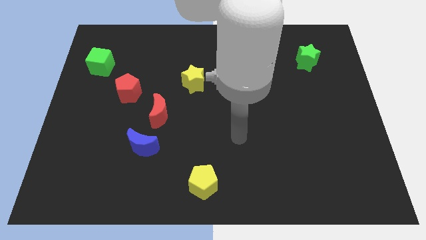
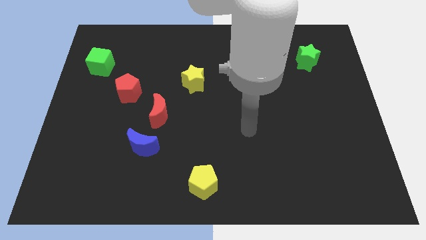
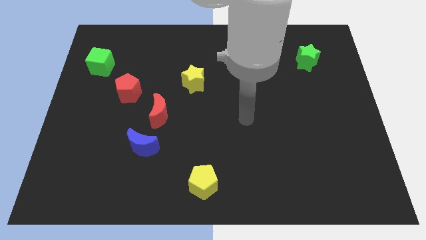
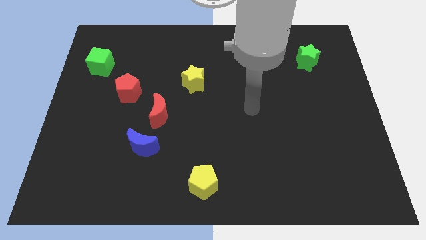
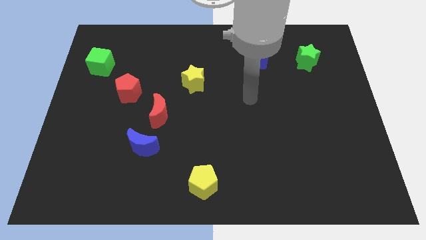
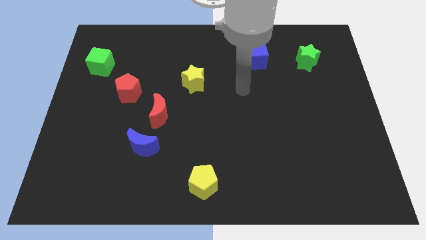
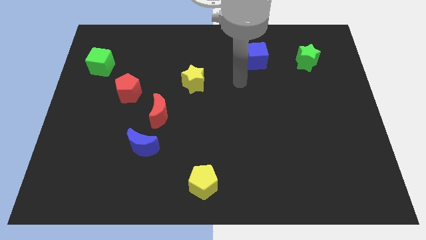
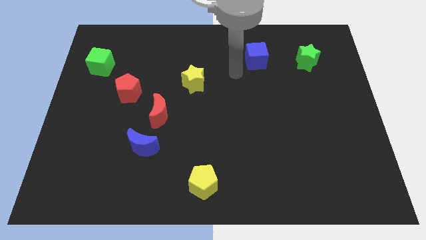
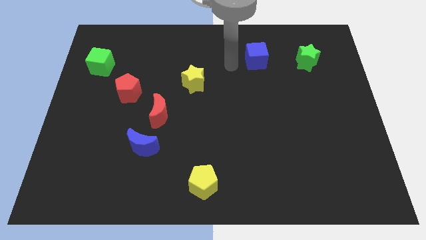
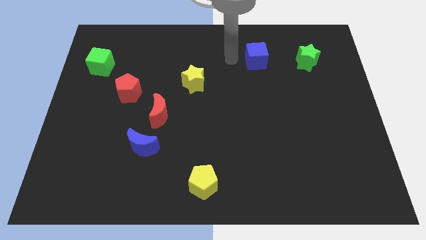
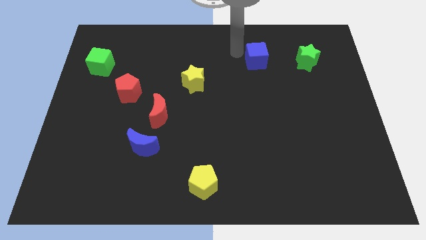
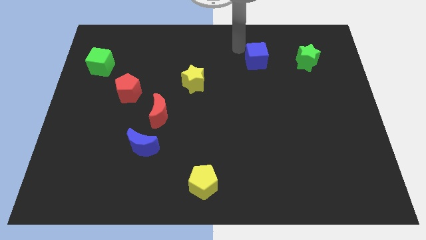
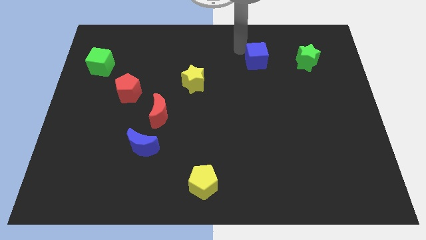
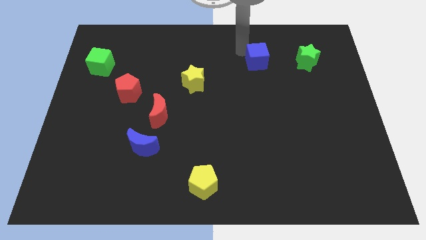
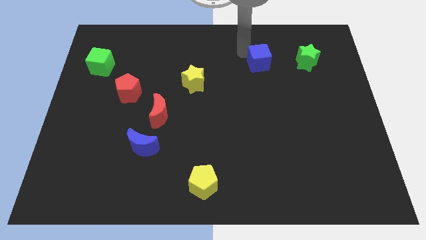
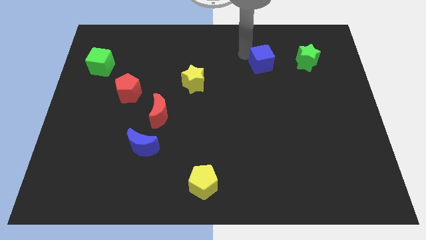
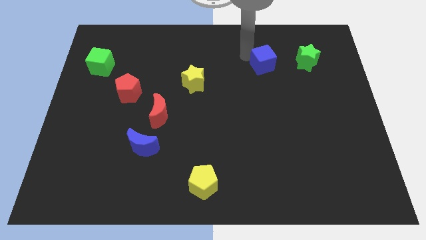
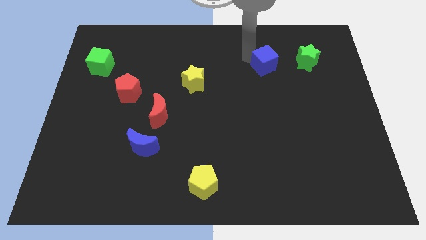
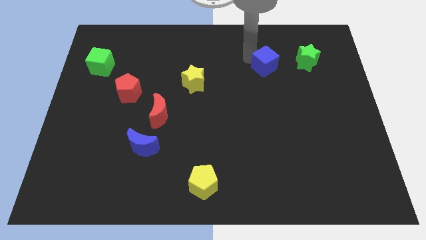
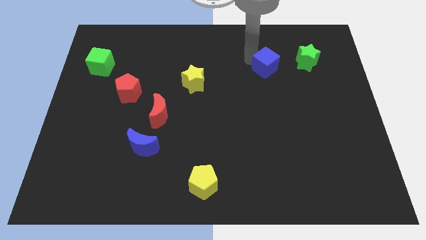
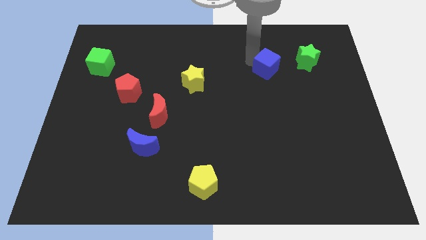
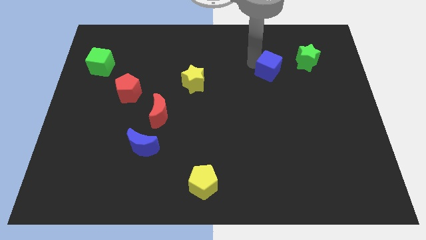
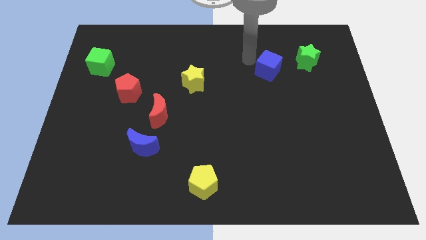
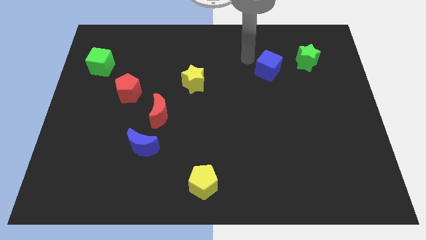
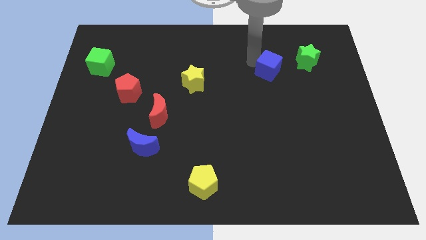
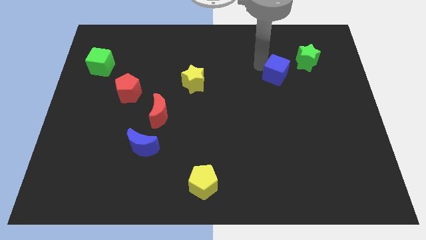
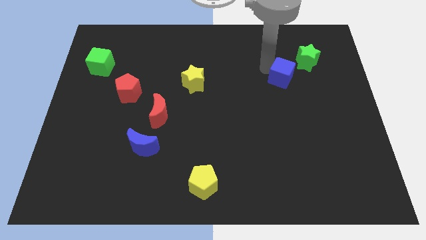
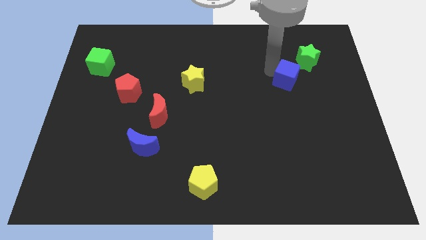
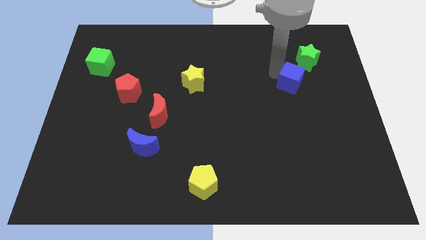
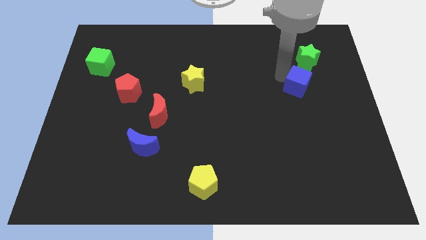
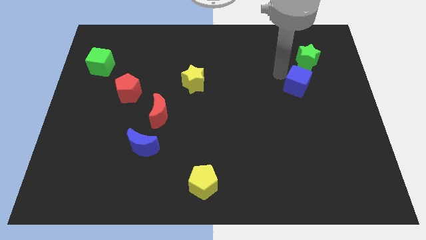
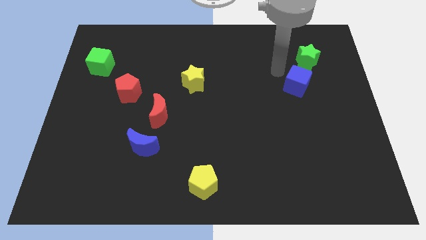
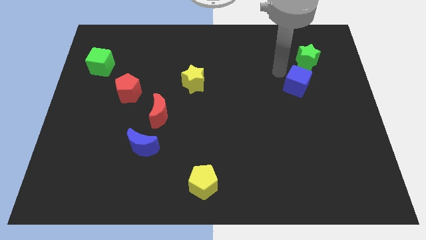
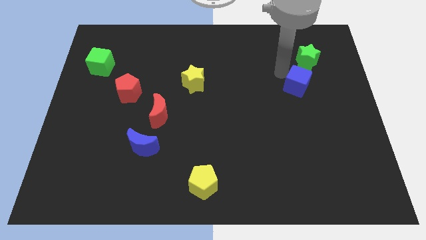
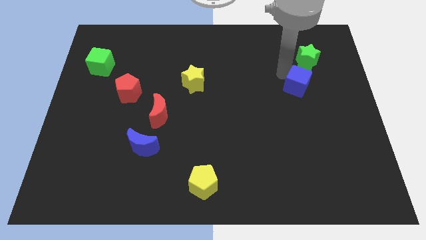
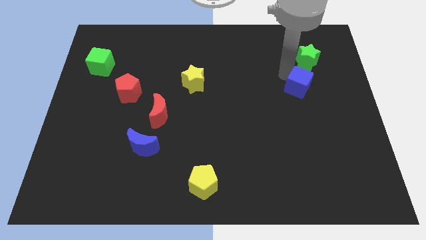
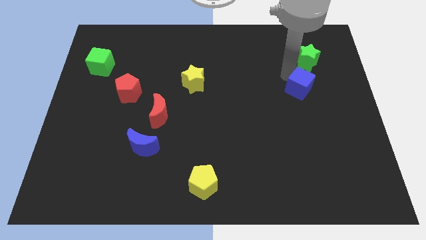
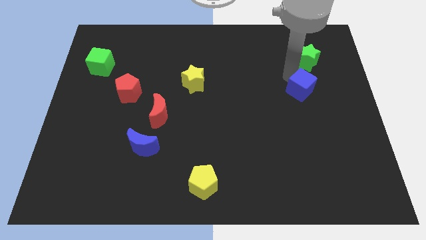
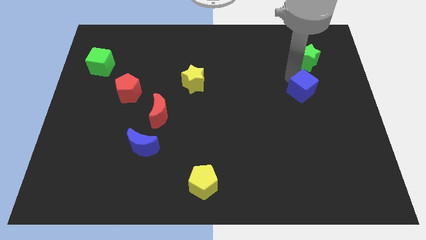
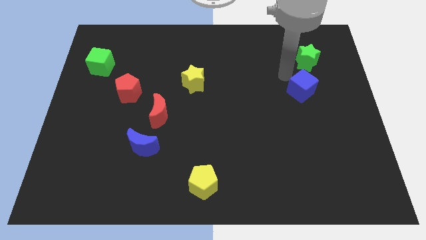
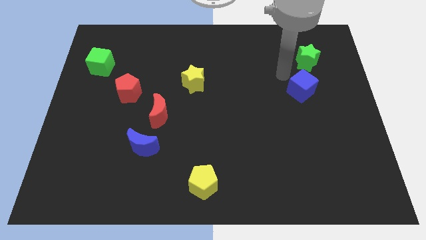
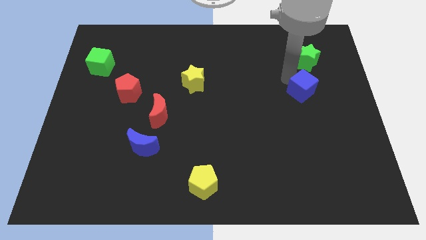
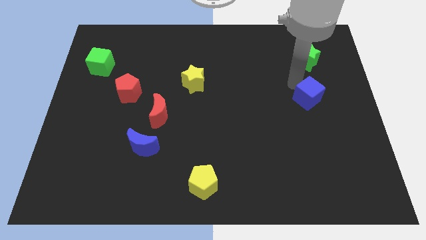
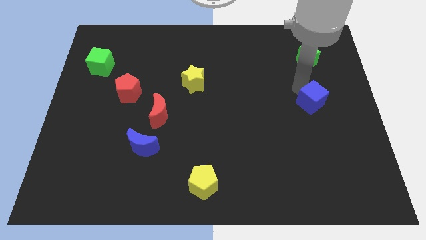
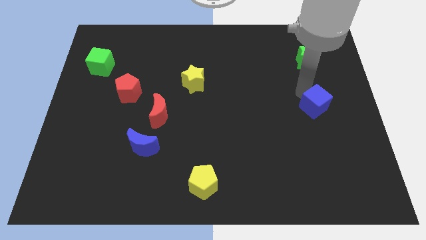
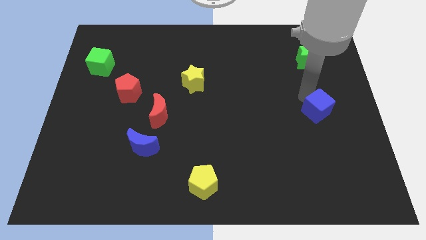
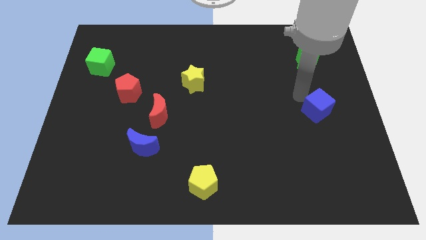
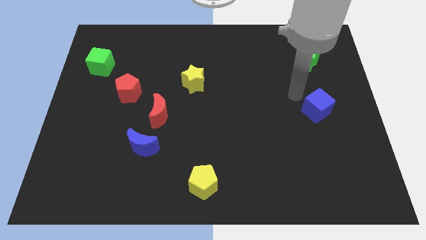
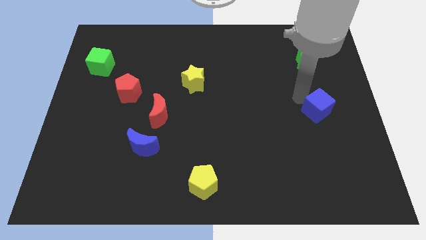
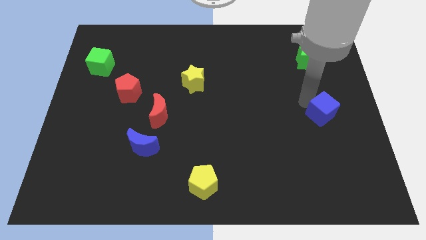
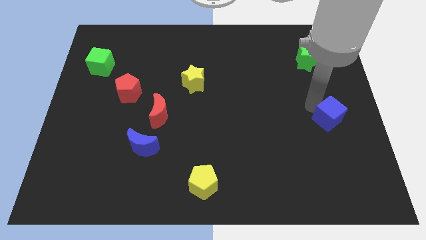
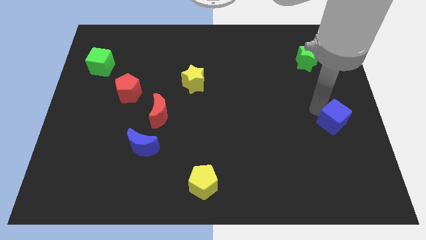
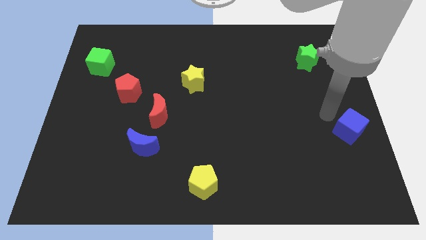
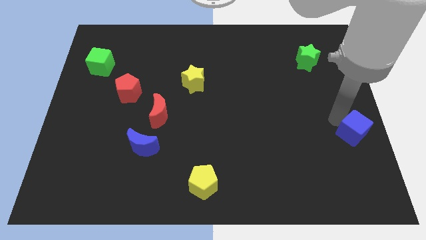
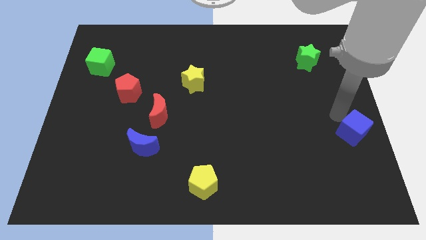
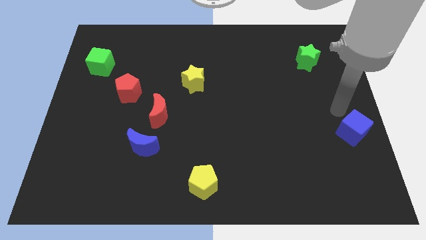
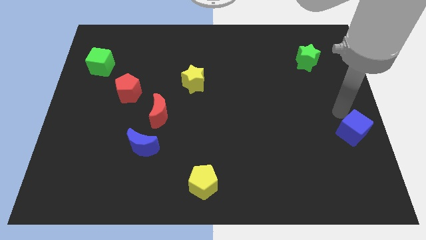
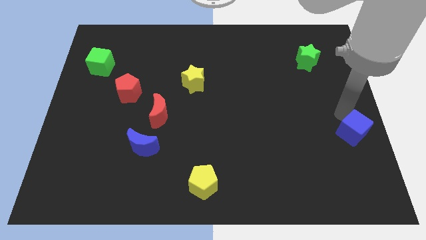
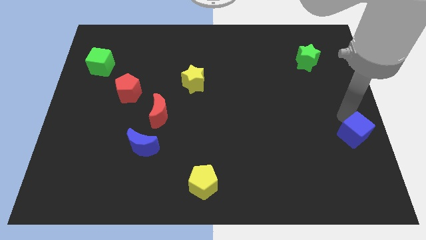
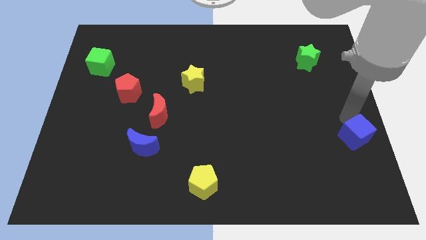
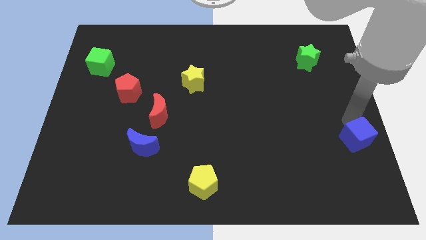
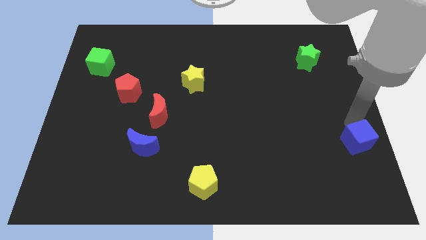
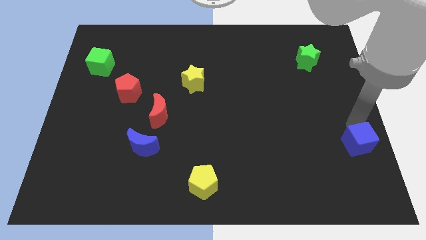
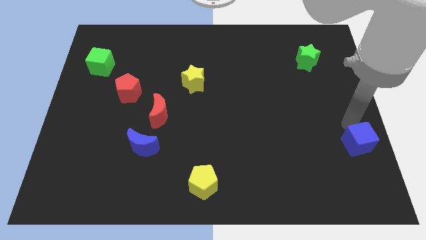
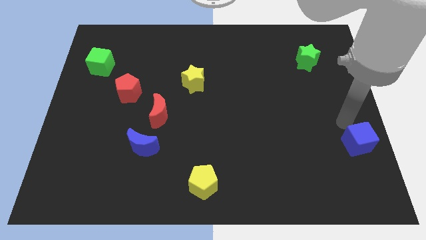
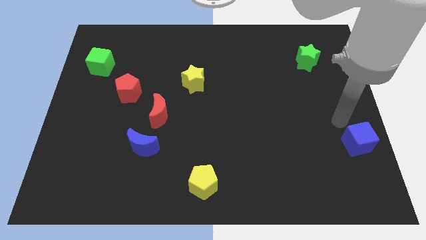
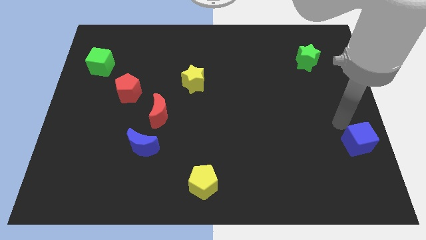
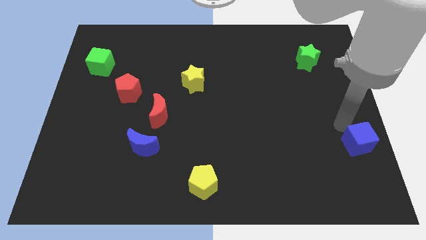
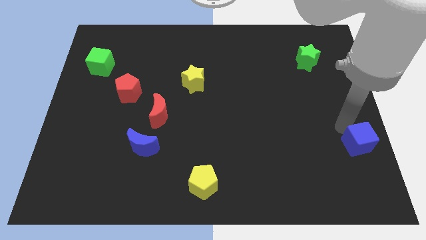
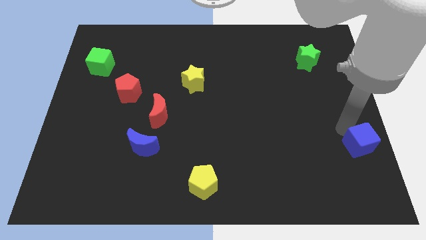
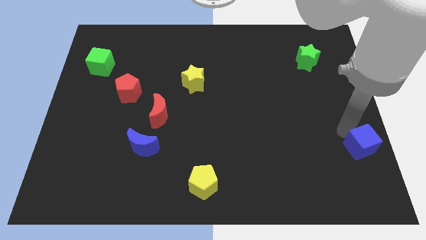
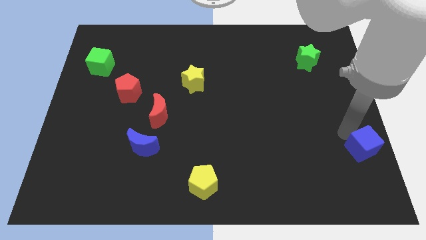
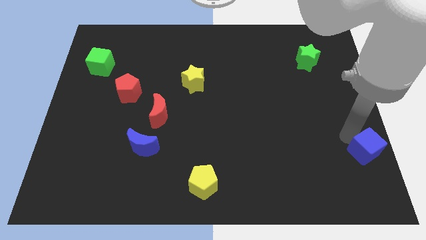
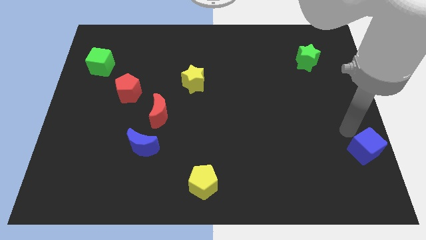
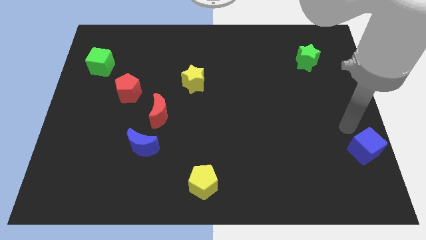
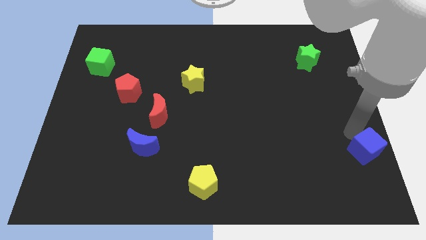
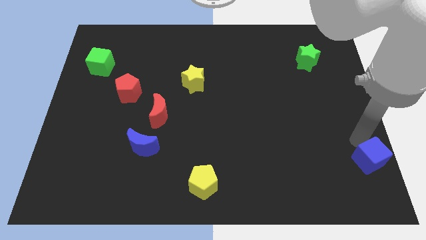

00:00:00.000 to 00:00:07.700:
put the blue cube to the lower right corner

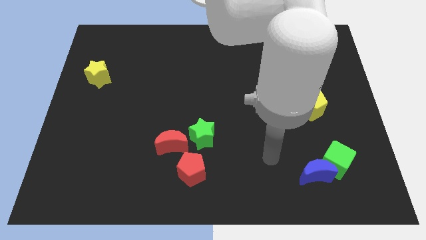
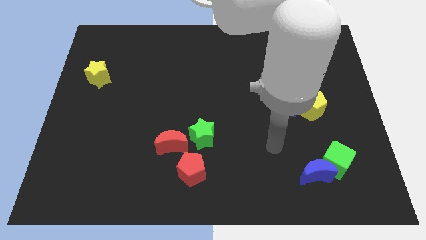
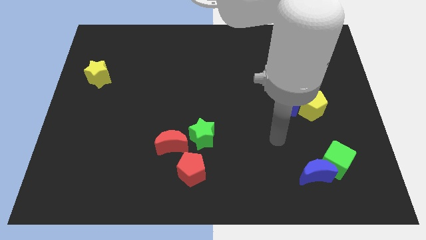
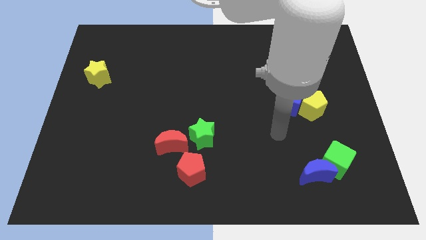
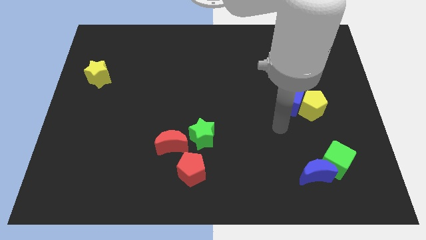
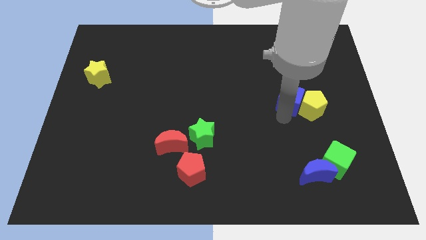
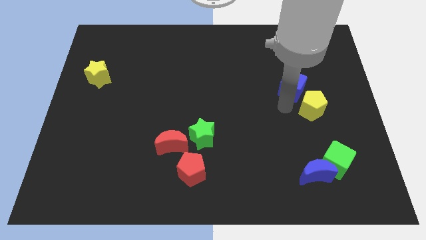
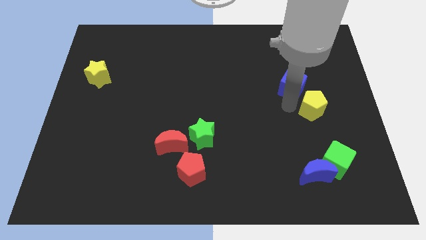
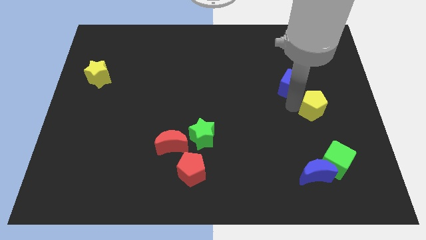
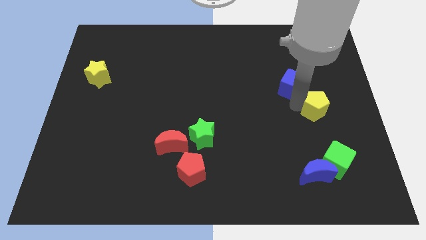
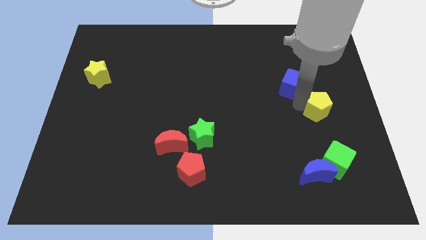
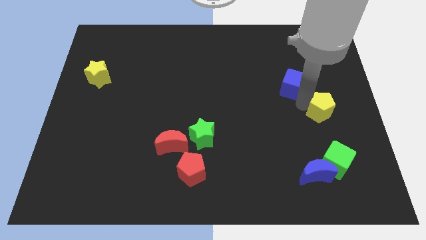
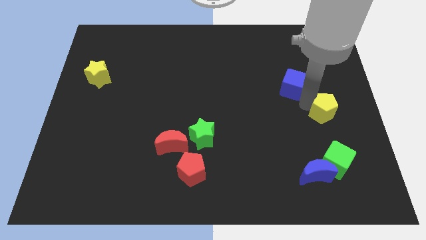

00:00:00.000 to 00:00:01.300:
move the yellow pentagon to the right side of the board
